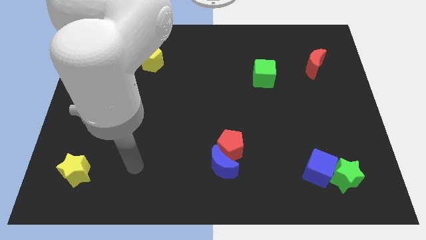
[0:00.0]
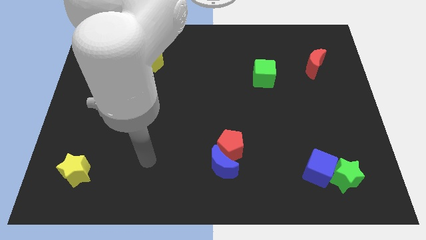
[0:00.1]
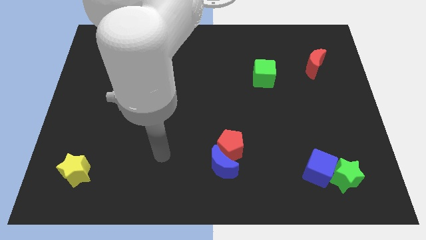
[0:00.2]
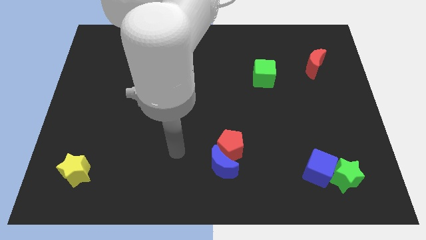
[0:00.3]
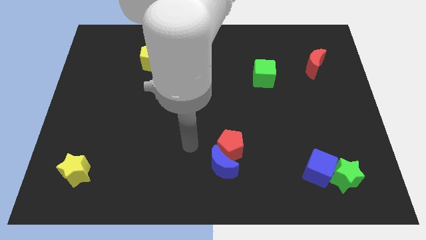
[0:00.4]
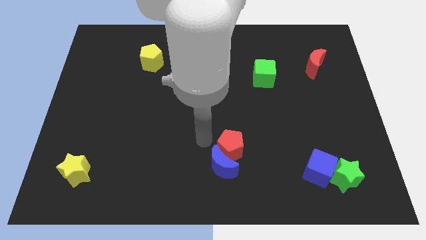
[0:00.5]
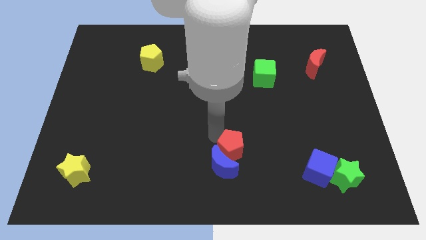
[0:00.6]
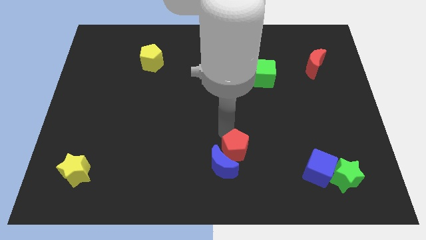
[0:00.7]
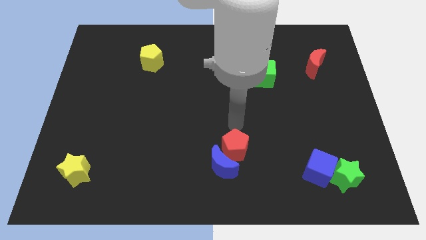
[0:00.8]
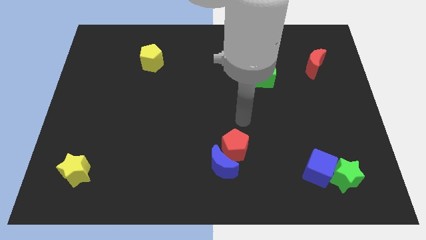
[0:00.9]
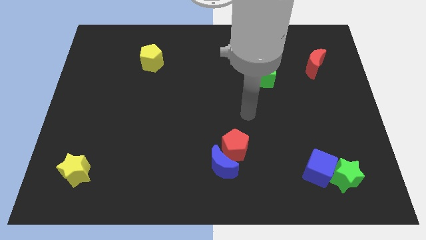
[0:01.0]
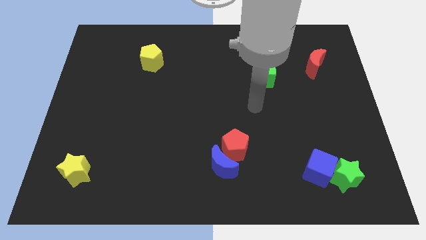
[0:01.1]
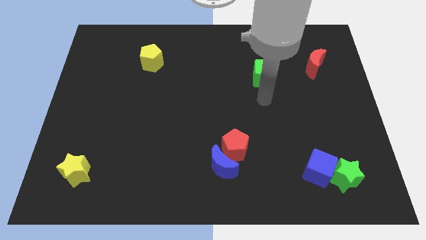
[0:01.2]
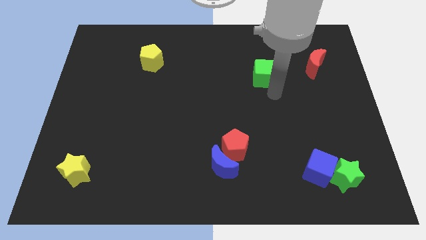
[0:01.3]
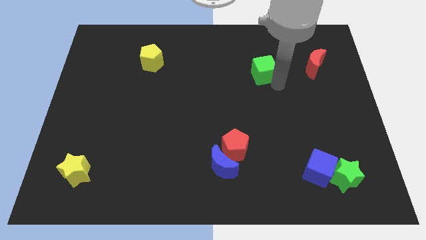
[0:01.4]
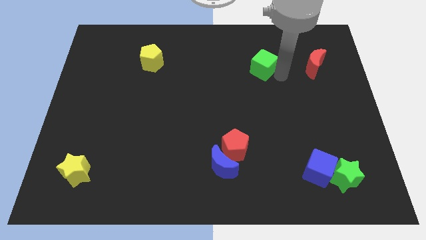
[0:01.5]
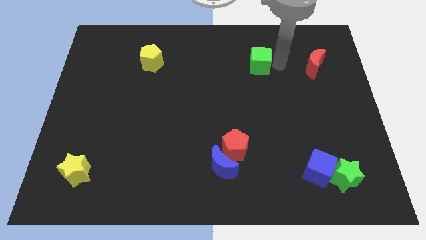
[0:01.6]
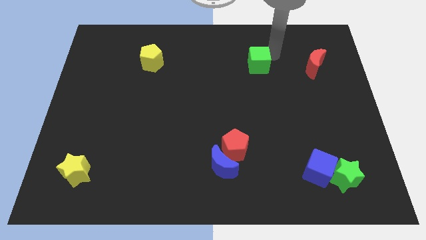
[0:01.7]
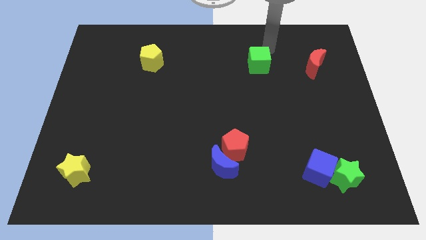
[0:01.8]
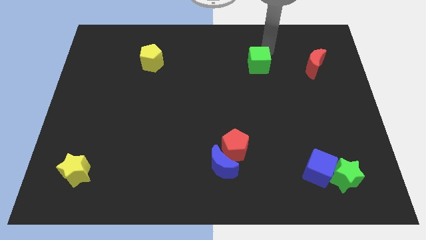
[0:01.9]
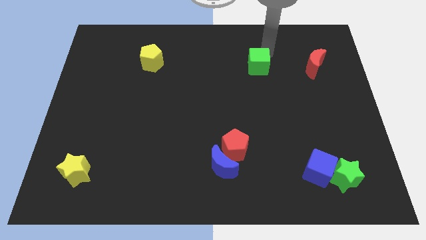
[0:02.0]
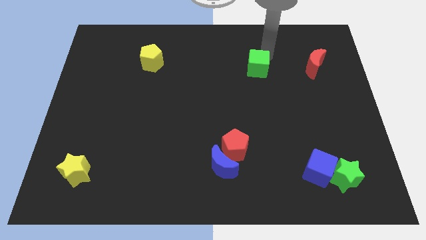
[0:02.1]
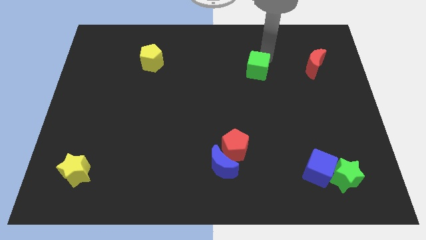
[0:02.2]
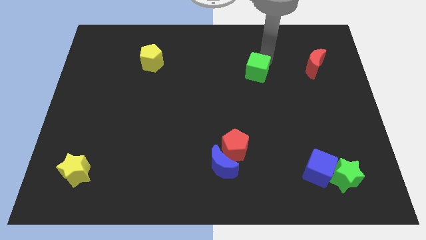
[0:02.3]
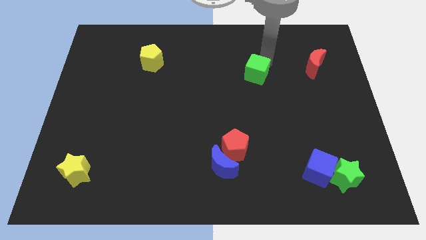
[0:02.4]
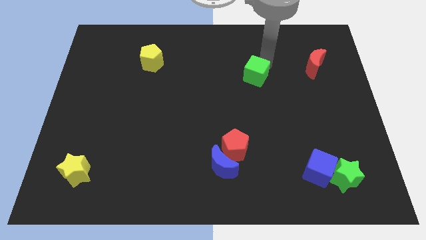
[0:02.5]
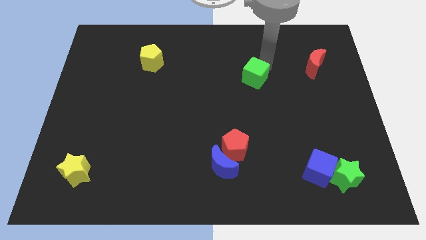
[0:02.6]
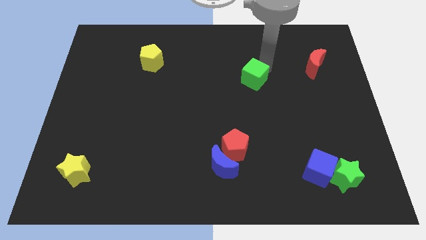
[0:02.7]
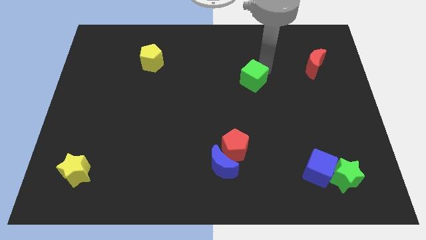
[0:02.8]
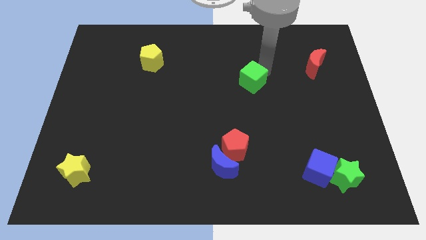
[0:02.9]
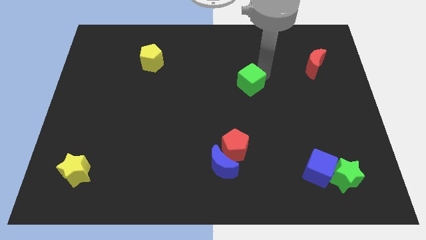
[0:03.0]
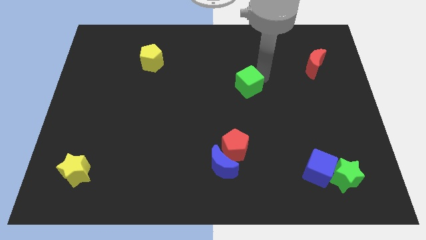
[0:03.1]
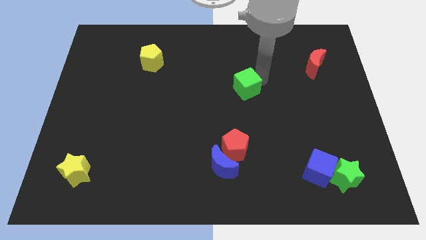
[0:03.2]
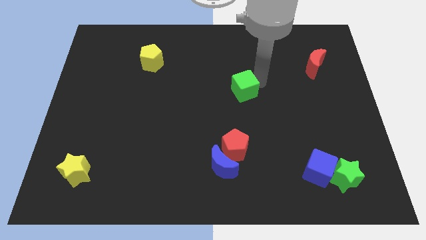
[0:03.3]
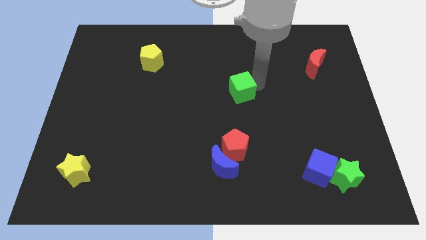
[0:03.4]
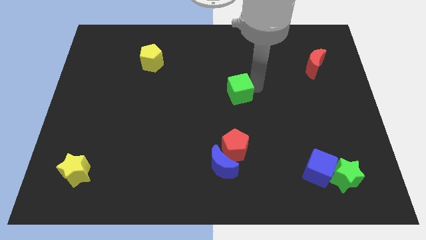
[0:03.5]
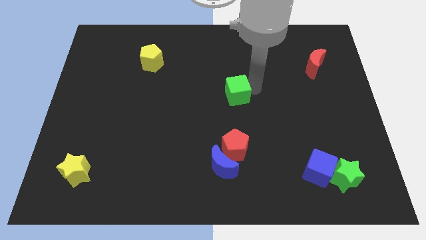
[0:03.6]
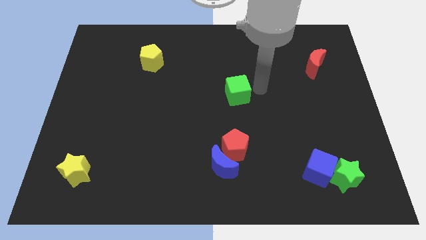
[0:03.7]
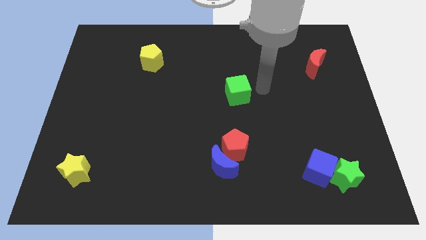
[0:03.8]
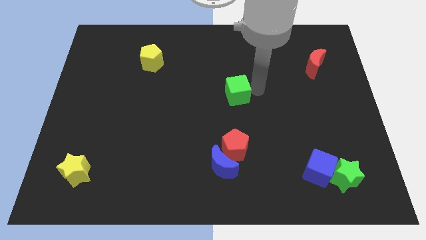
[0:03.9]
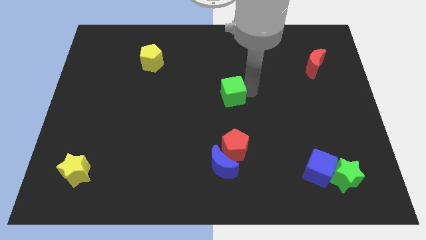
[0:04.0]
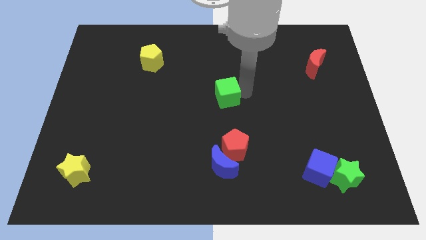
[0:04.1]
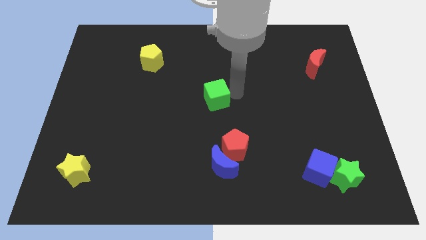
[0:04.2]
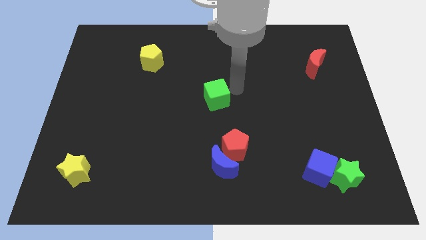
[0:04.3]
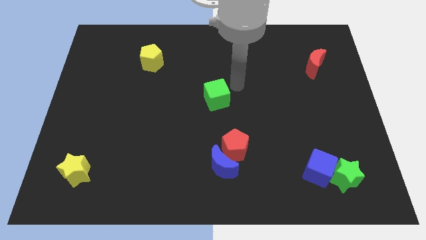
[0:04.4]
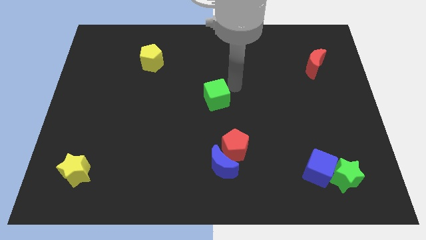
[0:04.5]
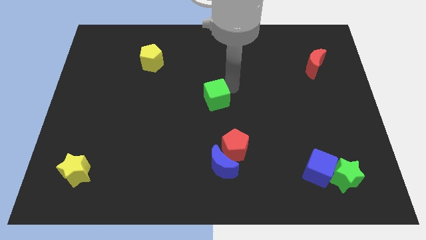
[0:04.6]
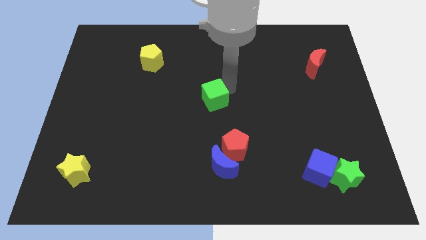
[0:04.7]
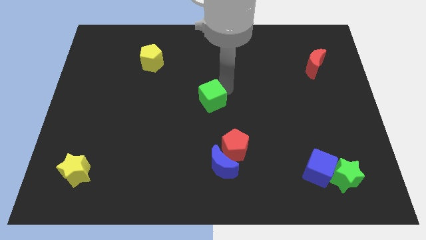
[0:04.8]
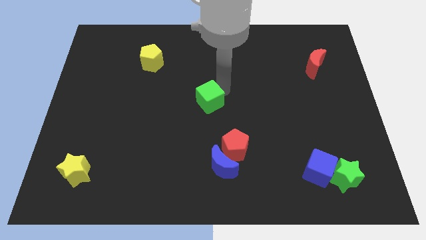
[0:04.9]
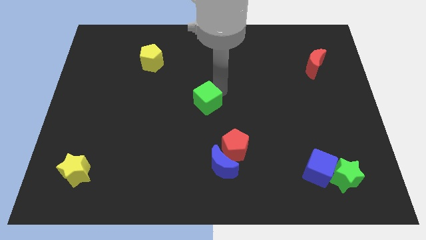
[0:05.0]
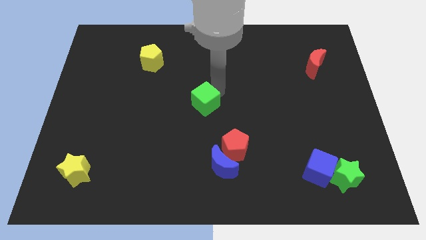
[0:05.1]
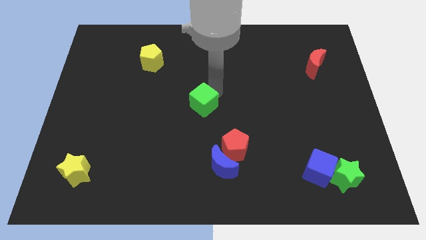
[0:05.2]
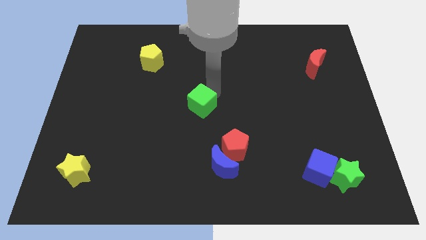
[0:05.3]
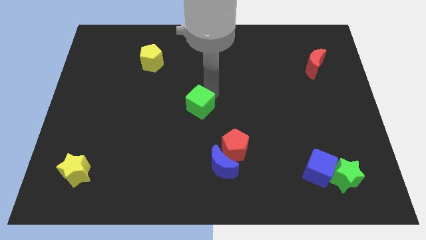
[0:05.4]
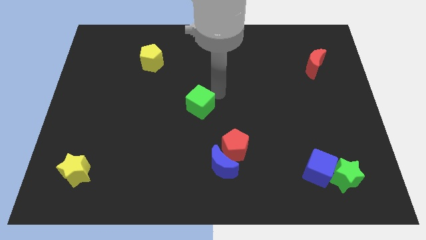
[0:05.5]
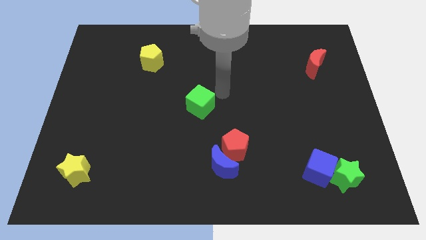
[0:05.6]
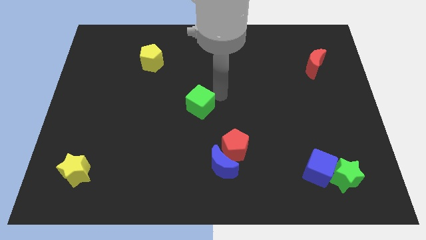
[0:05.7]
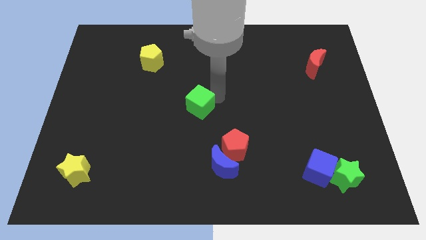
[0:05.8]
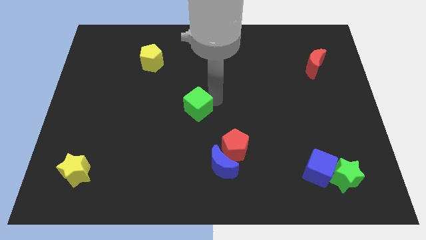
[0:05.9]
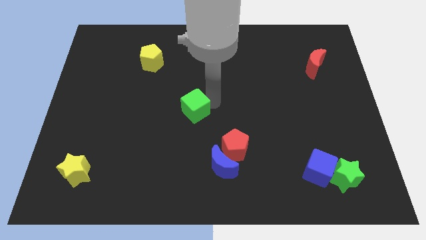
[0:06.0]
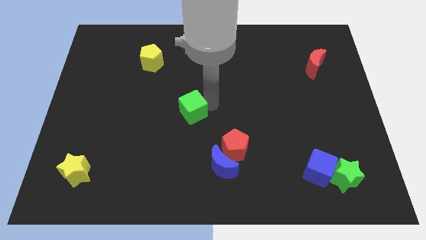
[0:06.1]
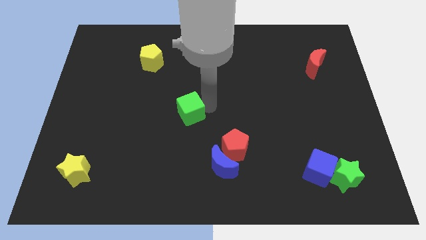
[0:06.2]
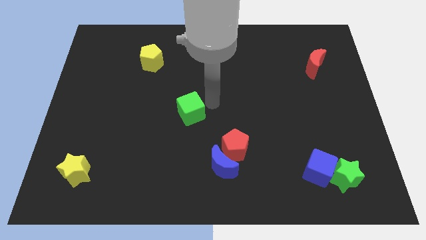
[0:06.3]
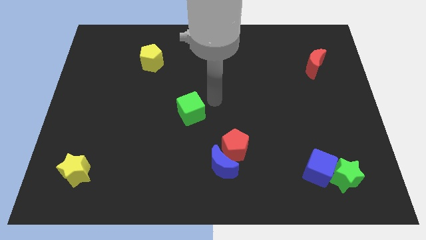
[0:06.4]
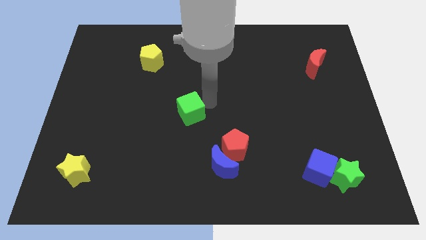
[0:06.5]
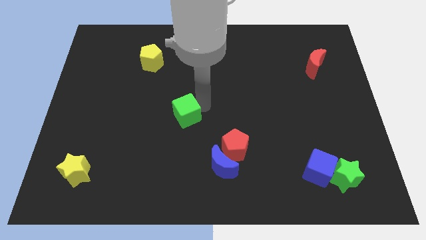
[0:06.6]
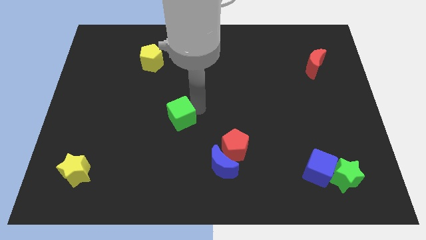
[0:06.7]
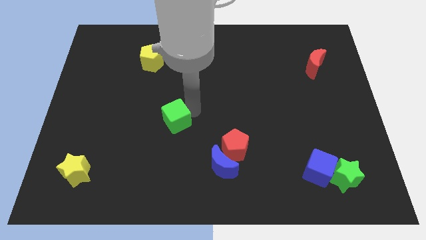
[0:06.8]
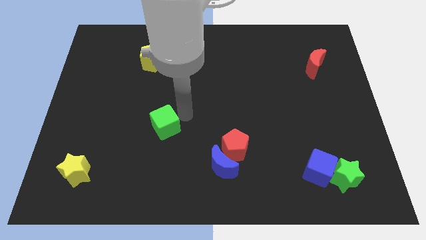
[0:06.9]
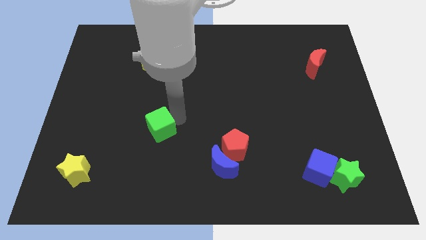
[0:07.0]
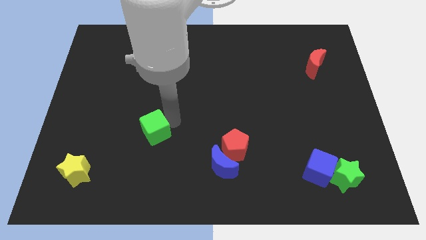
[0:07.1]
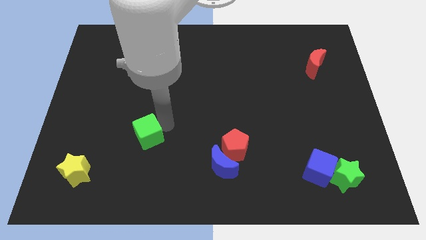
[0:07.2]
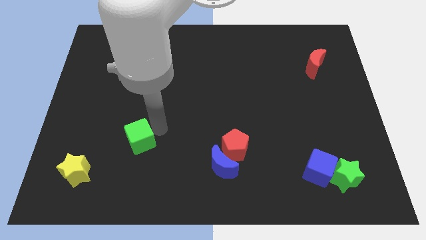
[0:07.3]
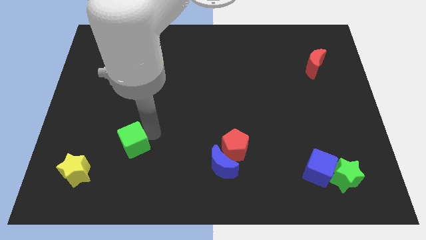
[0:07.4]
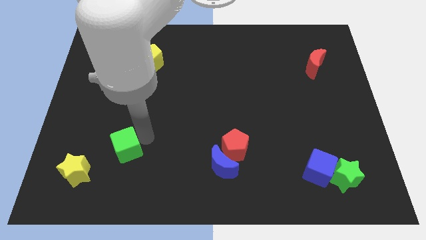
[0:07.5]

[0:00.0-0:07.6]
move the green cube to the top right side of the yellow star
